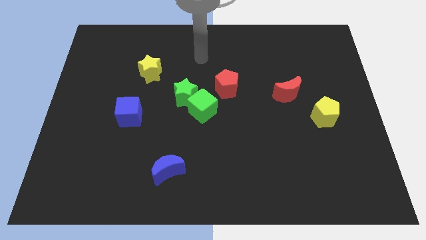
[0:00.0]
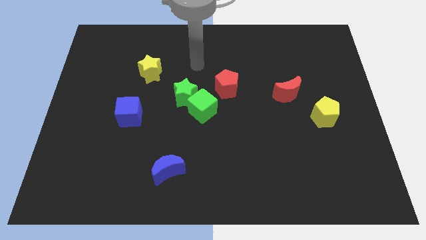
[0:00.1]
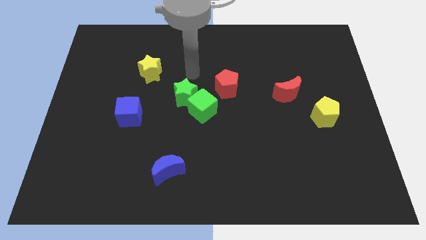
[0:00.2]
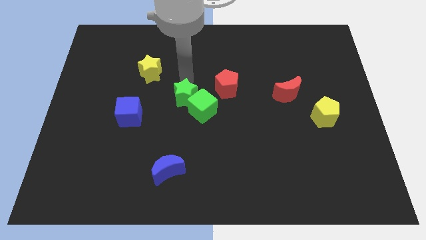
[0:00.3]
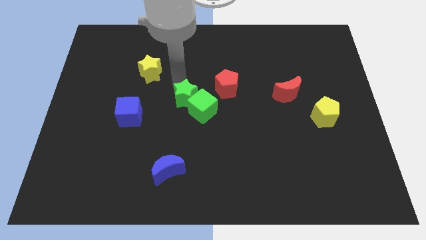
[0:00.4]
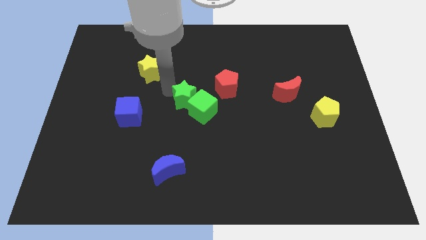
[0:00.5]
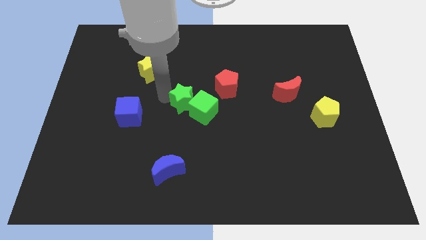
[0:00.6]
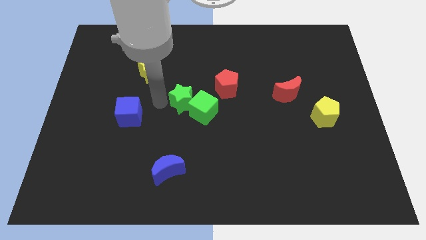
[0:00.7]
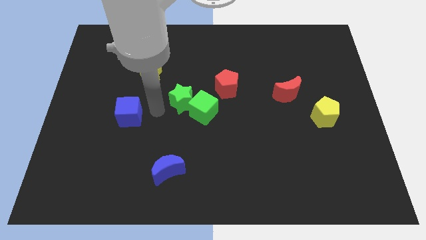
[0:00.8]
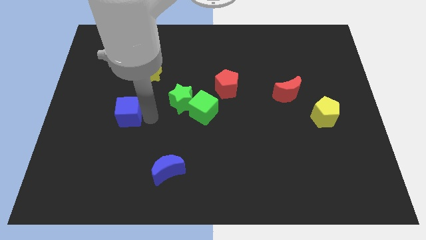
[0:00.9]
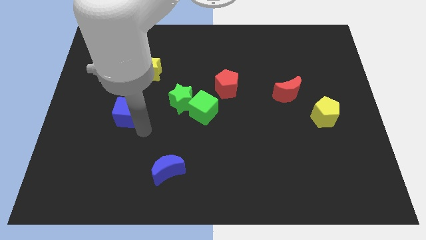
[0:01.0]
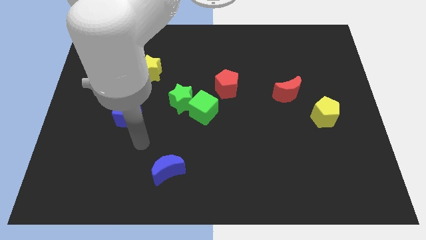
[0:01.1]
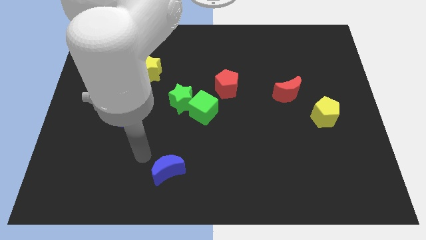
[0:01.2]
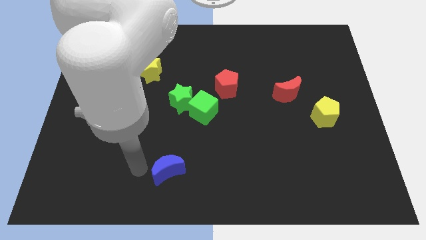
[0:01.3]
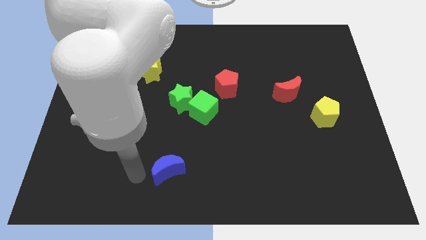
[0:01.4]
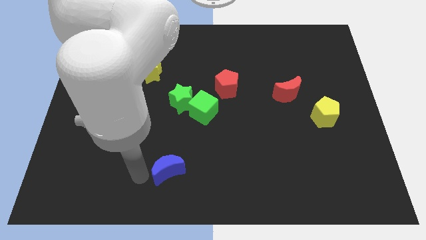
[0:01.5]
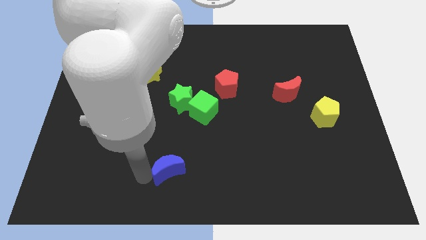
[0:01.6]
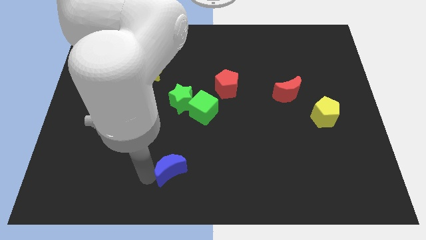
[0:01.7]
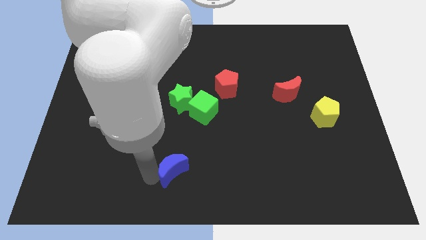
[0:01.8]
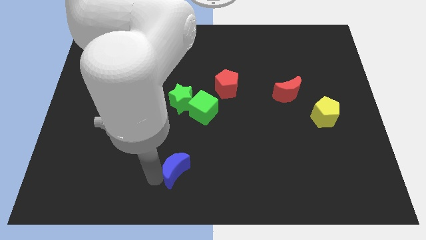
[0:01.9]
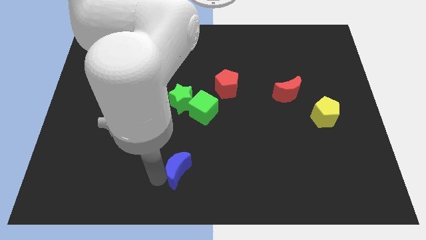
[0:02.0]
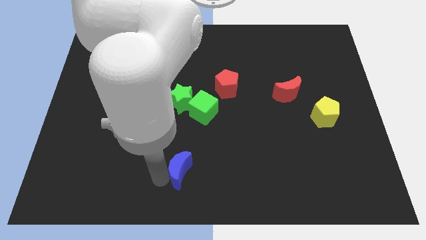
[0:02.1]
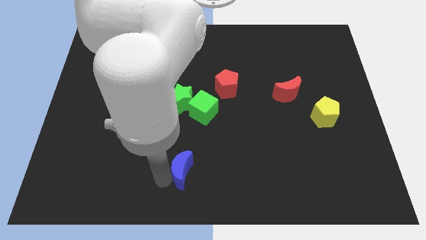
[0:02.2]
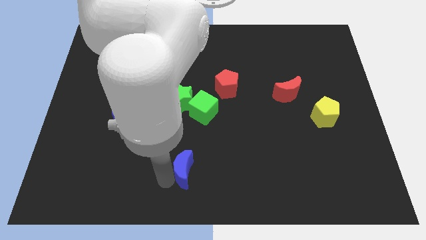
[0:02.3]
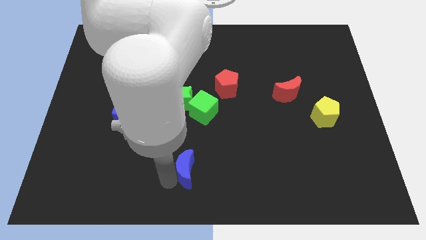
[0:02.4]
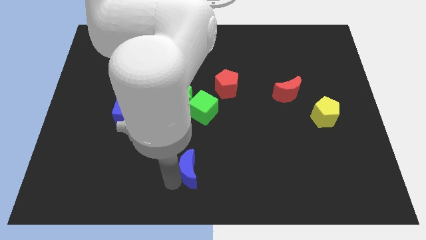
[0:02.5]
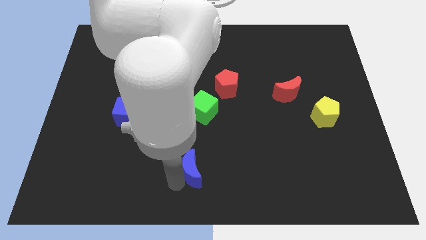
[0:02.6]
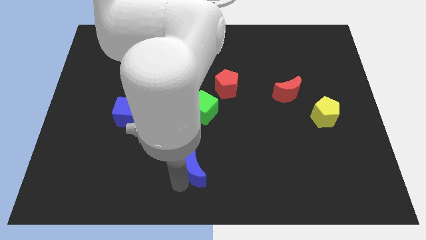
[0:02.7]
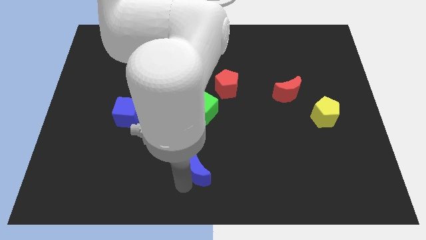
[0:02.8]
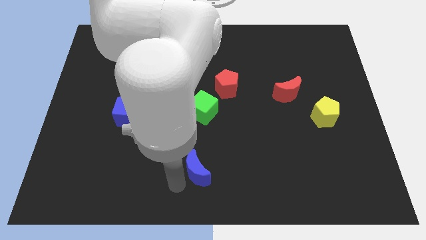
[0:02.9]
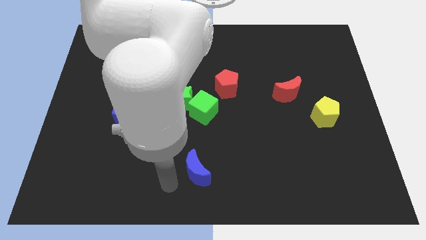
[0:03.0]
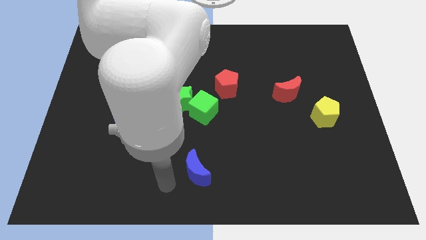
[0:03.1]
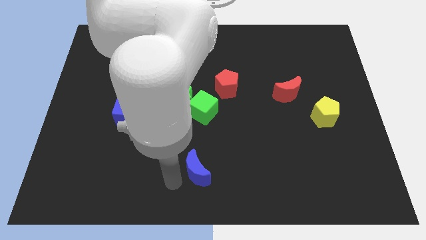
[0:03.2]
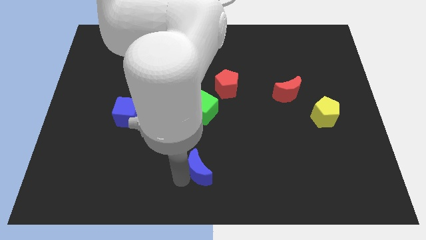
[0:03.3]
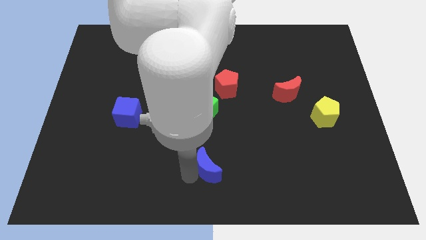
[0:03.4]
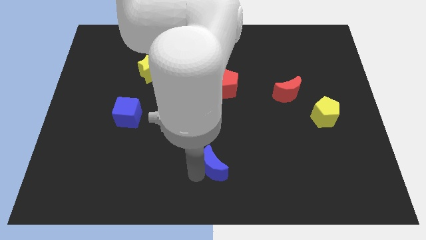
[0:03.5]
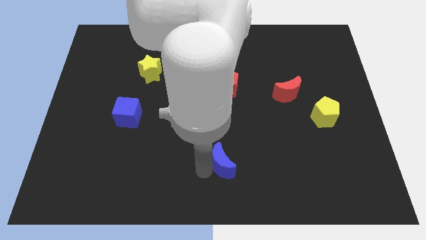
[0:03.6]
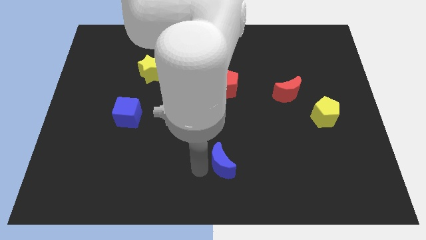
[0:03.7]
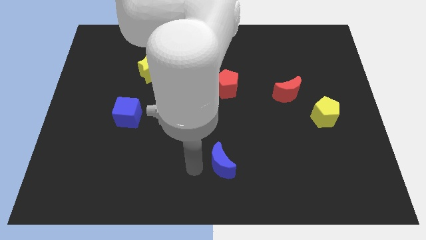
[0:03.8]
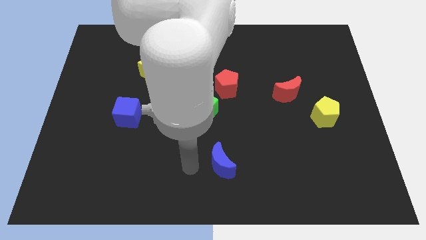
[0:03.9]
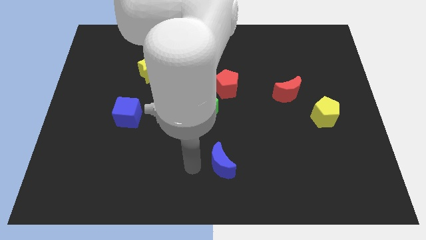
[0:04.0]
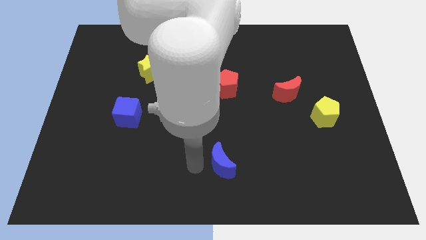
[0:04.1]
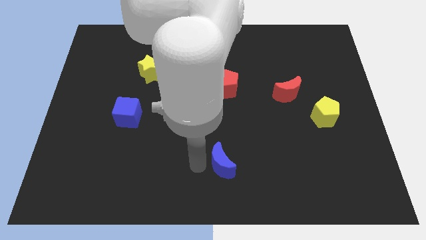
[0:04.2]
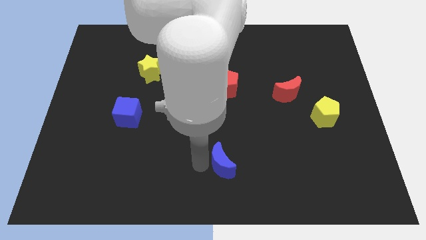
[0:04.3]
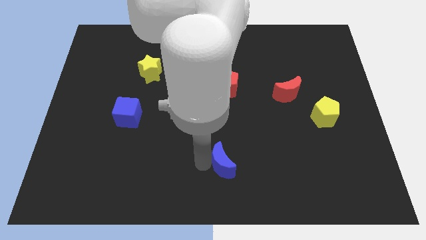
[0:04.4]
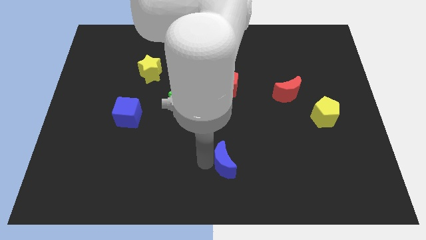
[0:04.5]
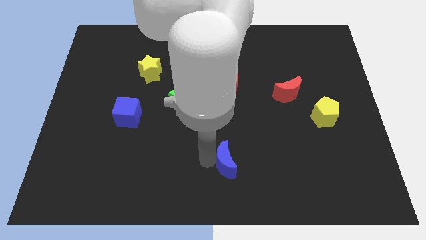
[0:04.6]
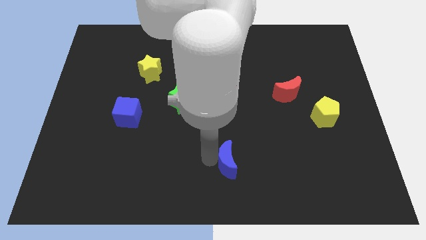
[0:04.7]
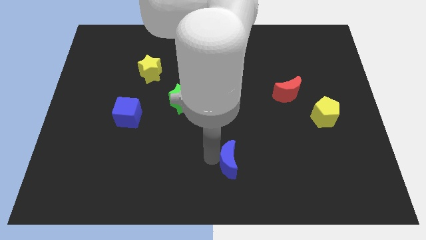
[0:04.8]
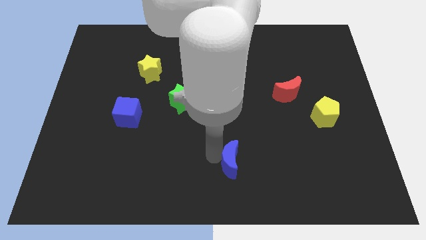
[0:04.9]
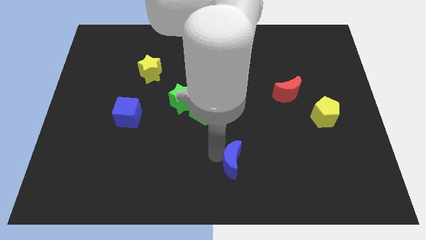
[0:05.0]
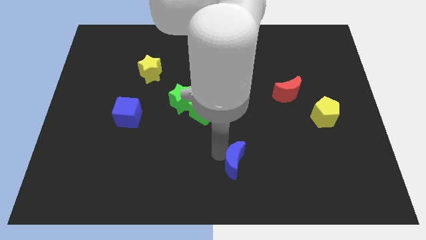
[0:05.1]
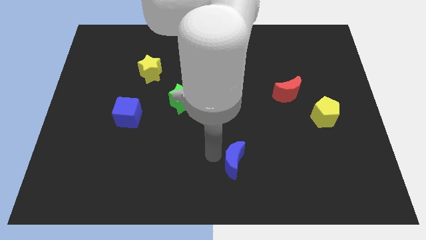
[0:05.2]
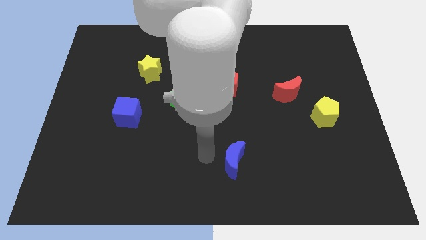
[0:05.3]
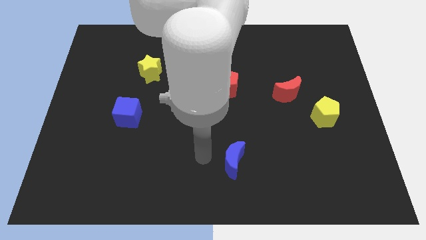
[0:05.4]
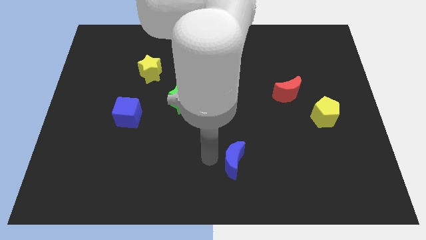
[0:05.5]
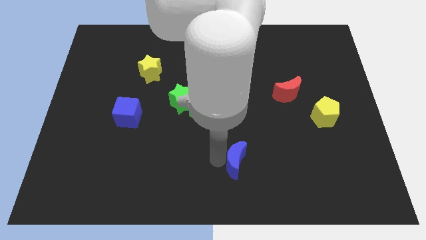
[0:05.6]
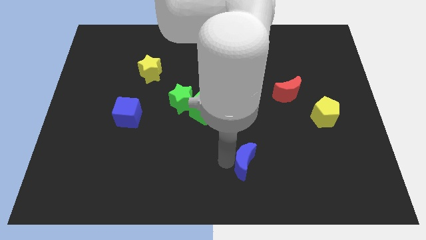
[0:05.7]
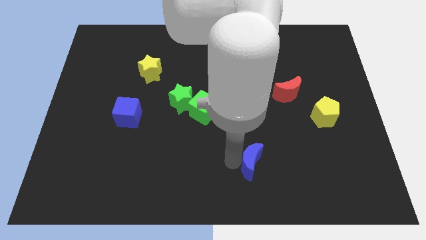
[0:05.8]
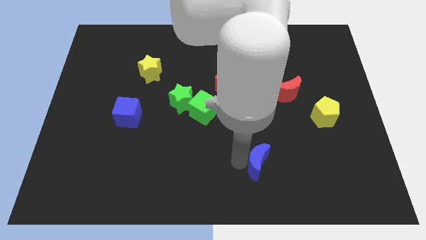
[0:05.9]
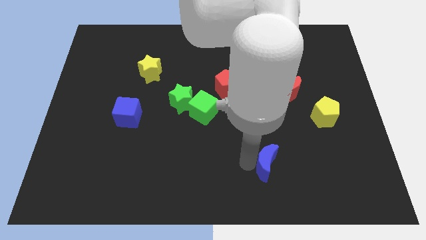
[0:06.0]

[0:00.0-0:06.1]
move the blue moon right

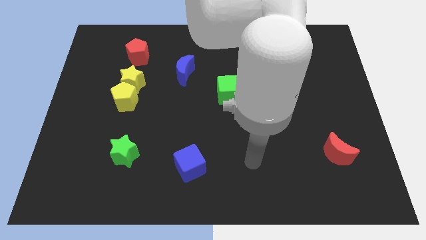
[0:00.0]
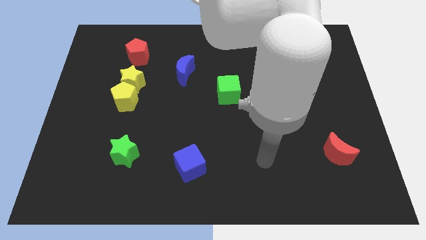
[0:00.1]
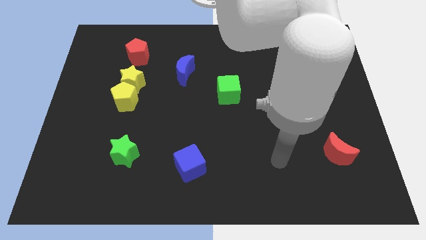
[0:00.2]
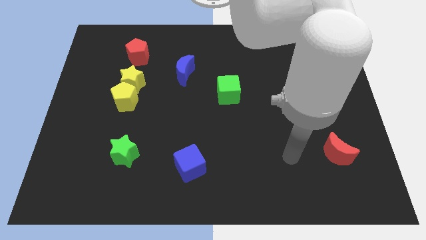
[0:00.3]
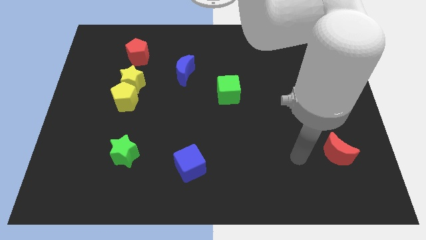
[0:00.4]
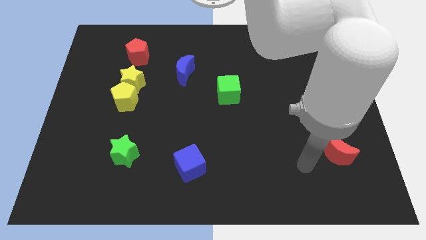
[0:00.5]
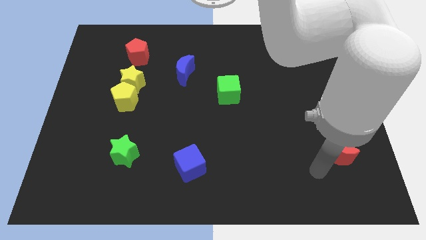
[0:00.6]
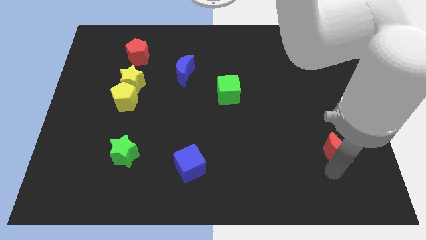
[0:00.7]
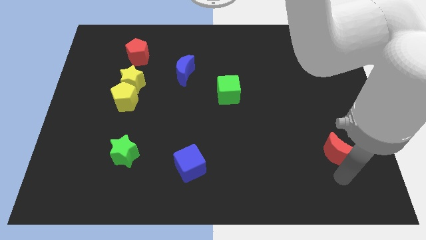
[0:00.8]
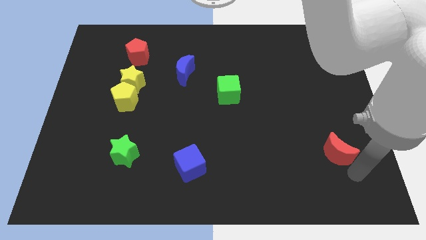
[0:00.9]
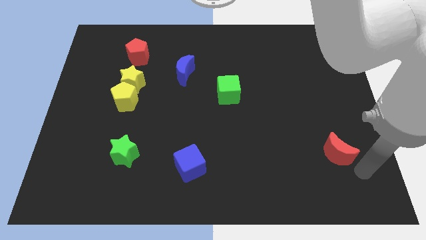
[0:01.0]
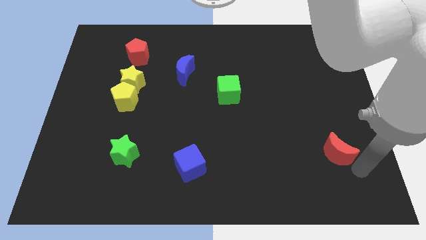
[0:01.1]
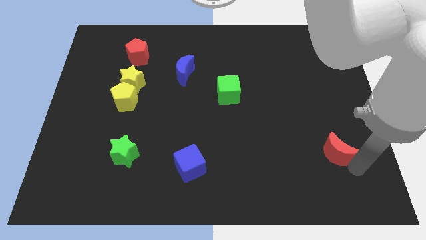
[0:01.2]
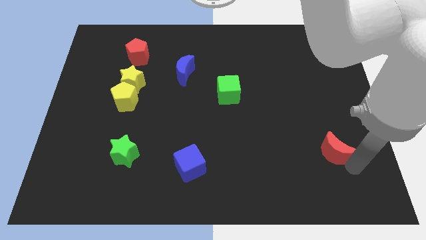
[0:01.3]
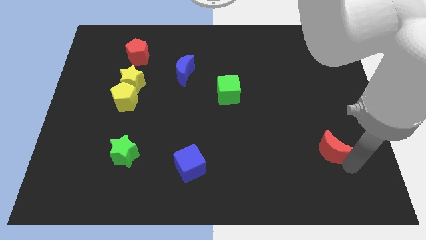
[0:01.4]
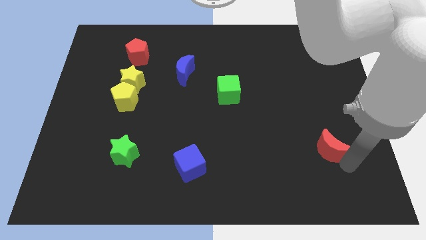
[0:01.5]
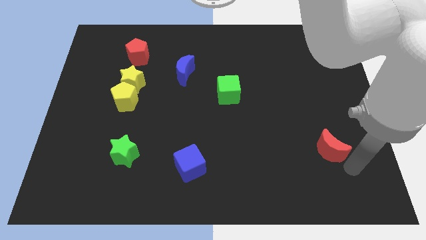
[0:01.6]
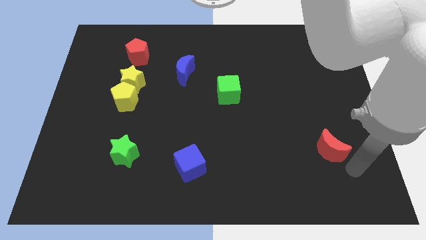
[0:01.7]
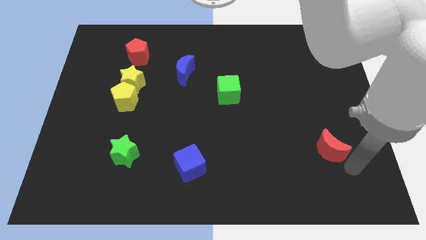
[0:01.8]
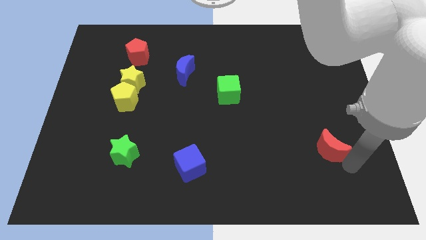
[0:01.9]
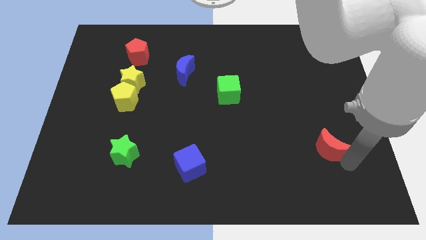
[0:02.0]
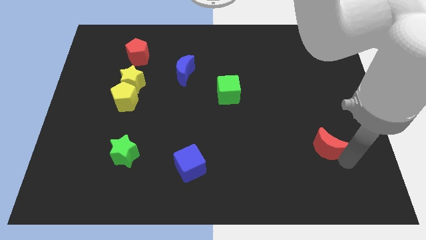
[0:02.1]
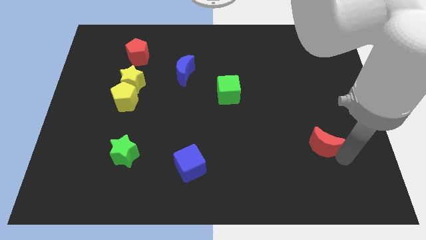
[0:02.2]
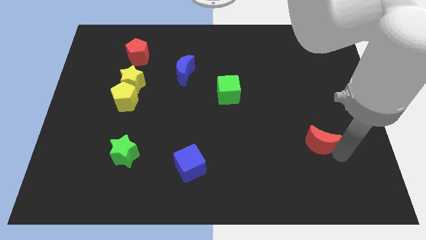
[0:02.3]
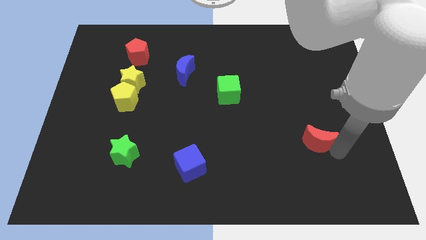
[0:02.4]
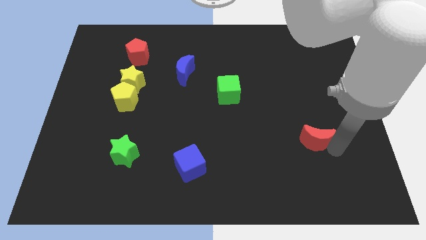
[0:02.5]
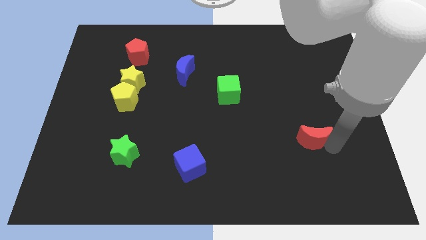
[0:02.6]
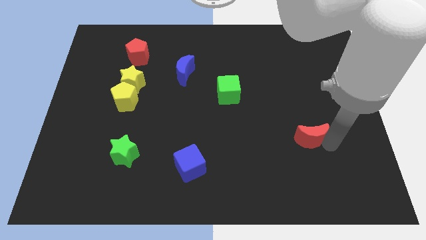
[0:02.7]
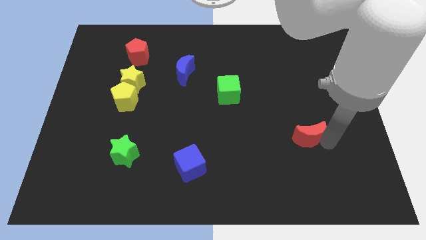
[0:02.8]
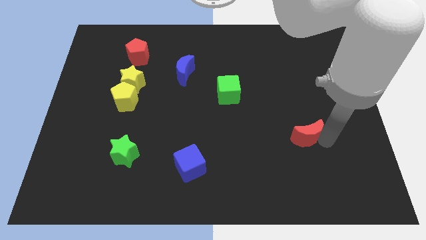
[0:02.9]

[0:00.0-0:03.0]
push the red moon a little bit up and left
